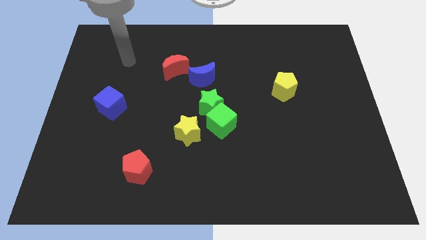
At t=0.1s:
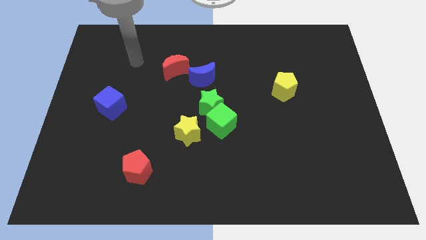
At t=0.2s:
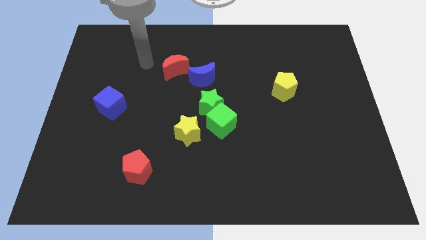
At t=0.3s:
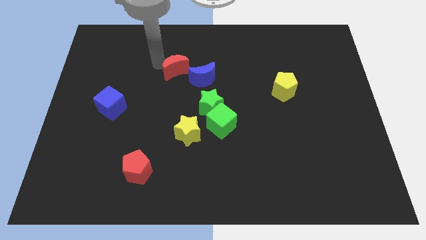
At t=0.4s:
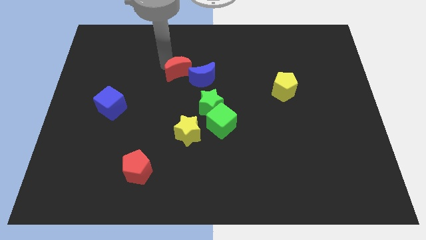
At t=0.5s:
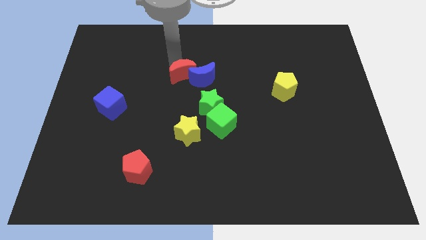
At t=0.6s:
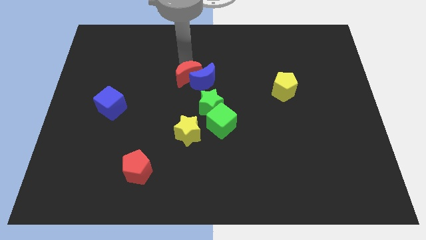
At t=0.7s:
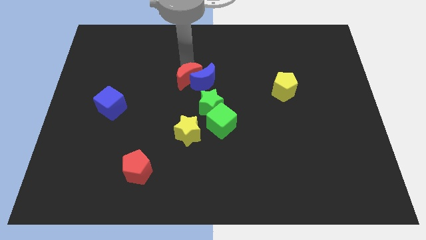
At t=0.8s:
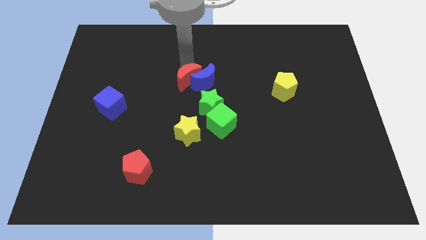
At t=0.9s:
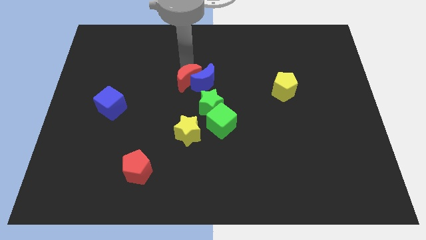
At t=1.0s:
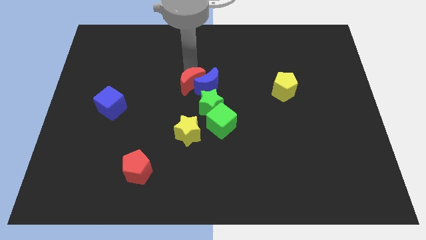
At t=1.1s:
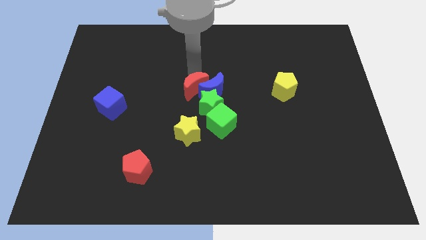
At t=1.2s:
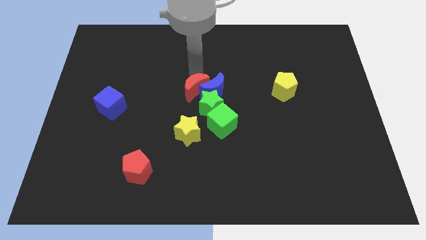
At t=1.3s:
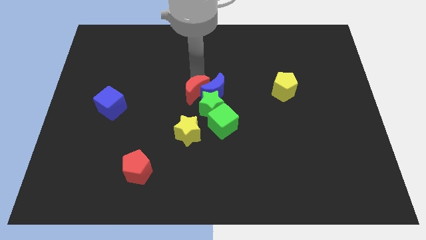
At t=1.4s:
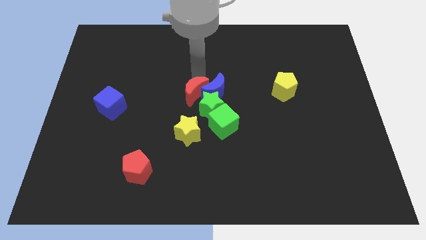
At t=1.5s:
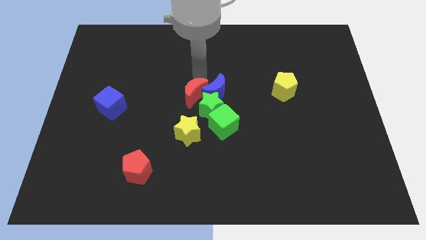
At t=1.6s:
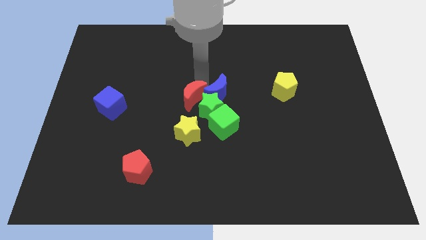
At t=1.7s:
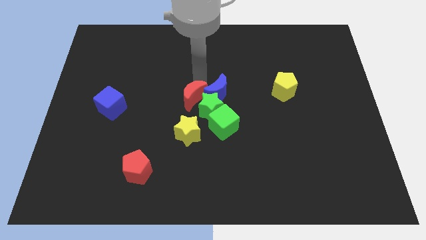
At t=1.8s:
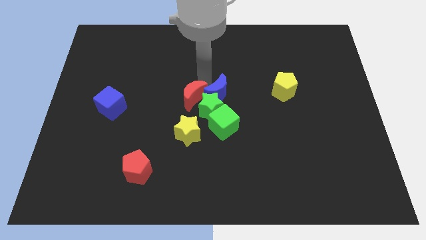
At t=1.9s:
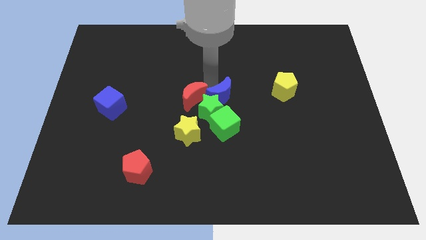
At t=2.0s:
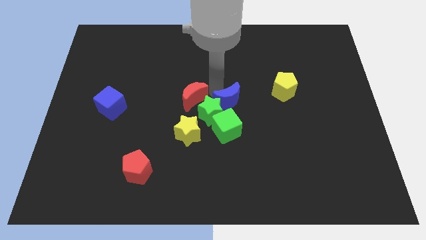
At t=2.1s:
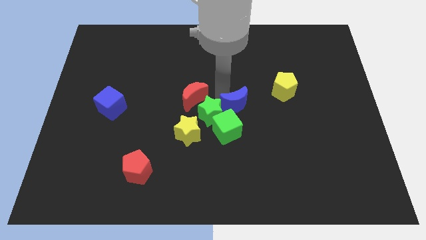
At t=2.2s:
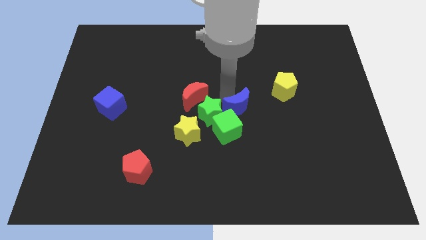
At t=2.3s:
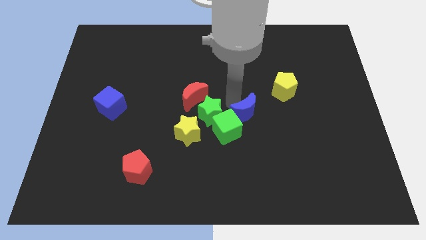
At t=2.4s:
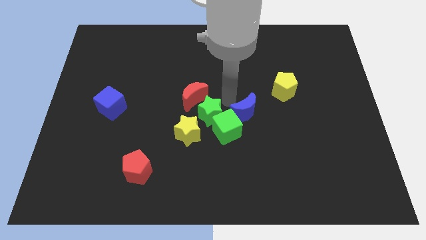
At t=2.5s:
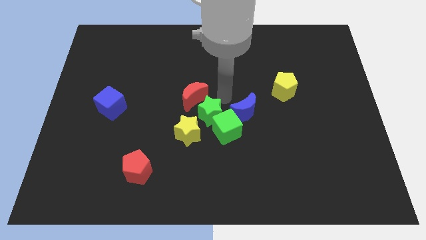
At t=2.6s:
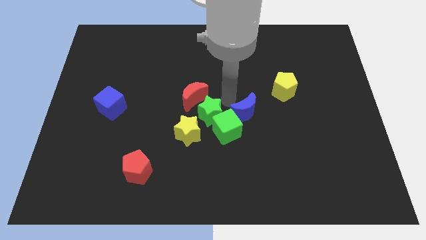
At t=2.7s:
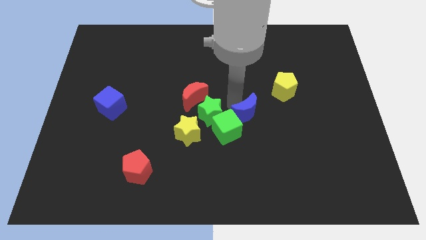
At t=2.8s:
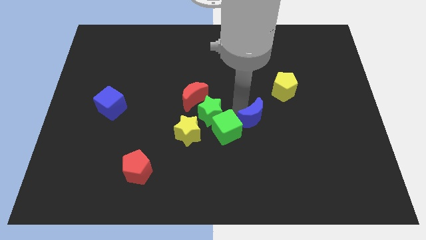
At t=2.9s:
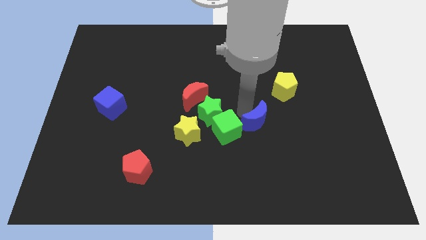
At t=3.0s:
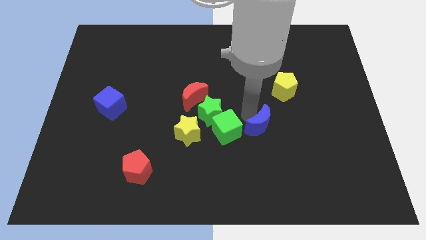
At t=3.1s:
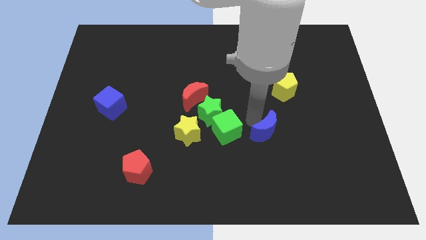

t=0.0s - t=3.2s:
push the blue moon down and right

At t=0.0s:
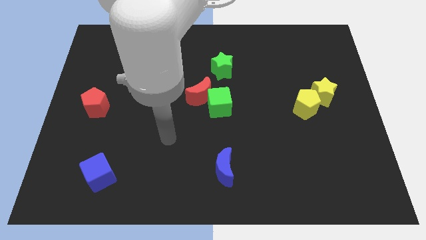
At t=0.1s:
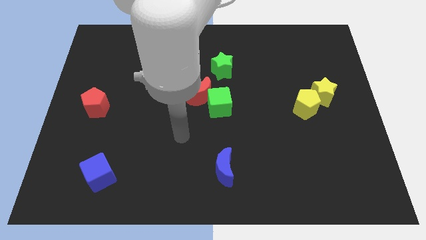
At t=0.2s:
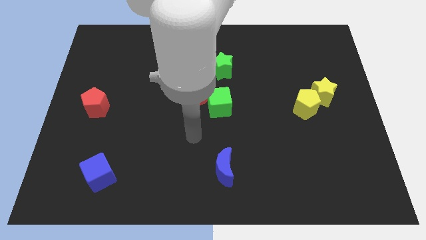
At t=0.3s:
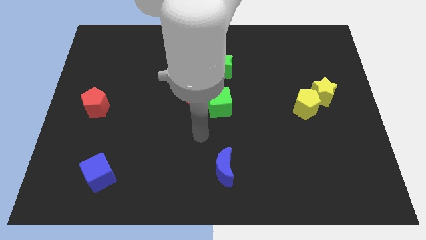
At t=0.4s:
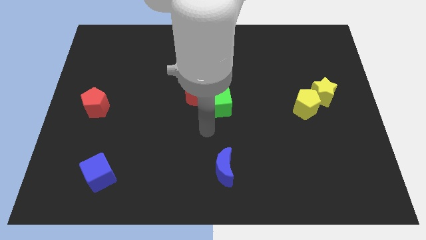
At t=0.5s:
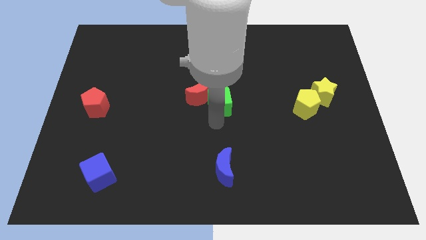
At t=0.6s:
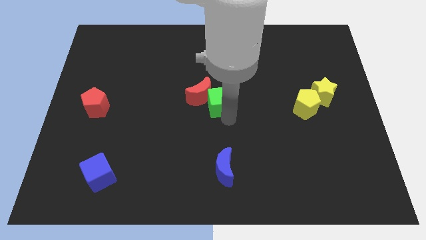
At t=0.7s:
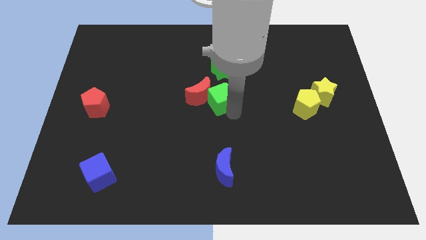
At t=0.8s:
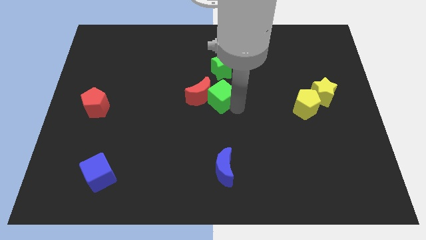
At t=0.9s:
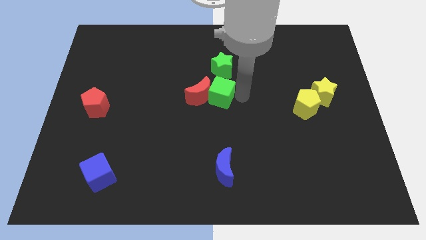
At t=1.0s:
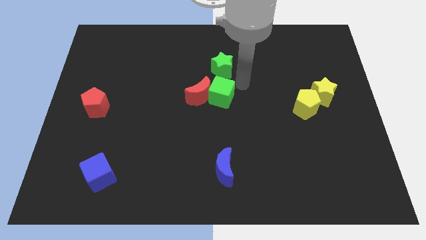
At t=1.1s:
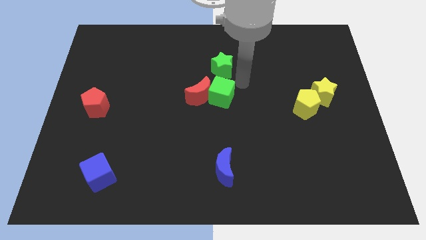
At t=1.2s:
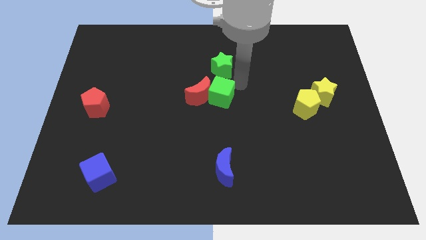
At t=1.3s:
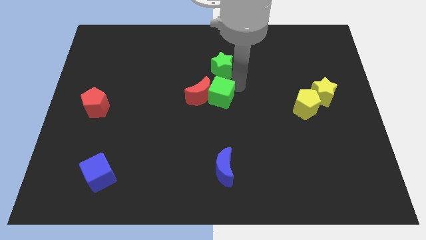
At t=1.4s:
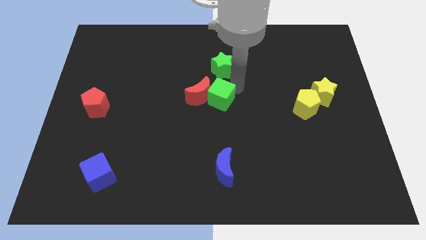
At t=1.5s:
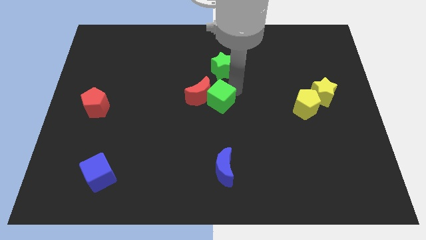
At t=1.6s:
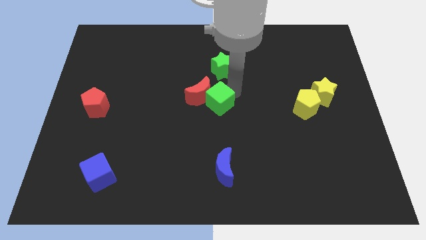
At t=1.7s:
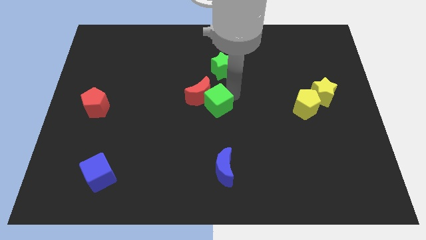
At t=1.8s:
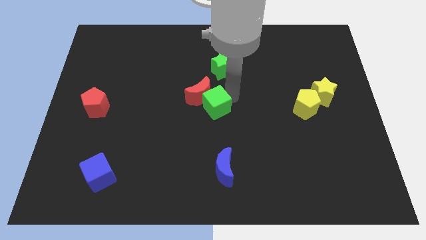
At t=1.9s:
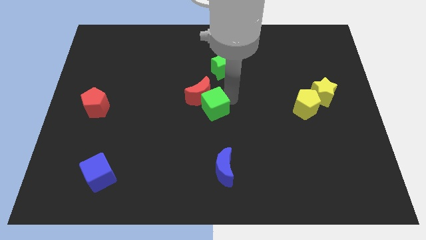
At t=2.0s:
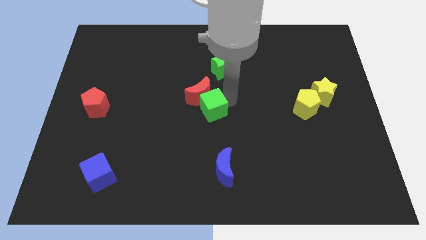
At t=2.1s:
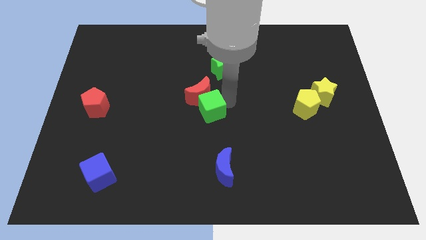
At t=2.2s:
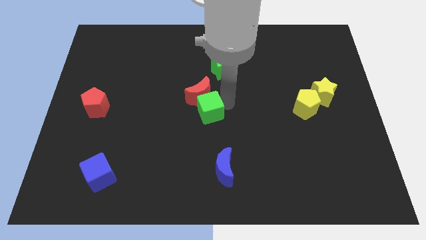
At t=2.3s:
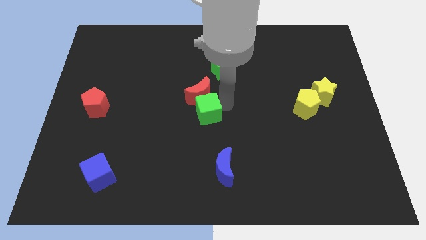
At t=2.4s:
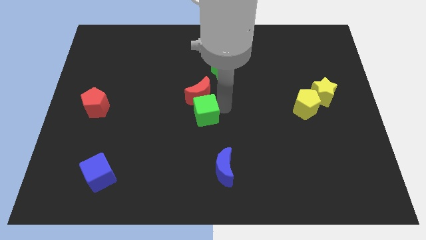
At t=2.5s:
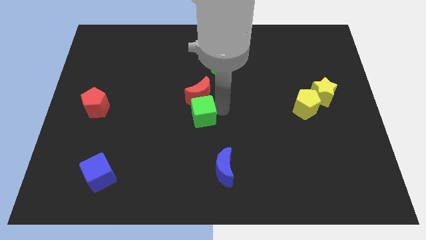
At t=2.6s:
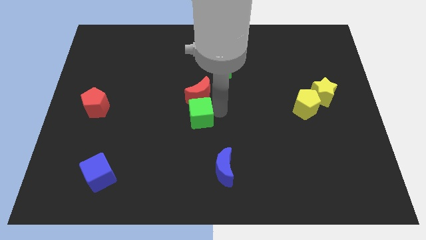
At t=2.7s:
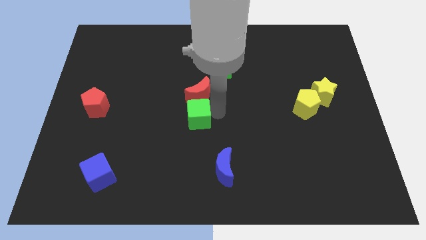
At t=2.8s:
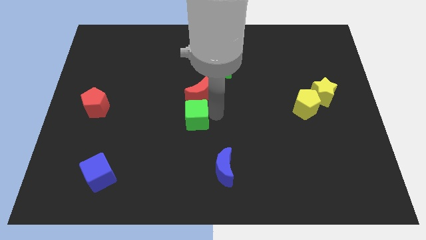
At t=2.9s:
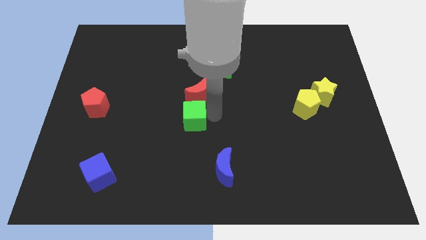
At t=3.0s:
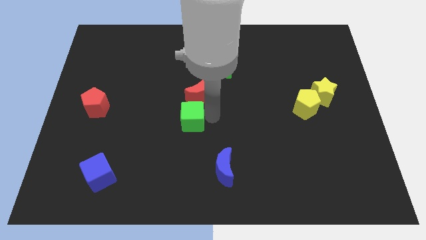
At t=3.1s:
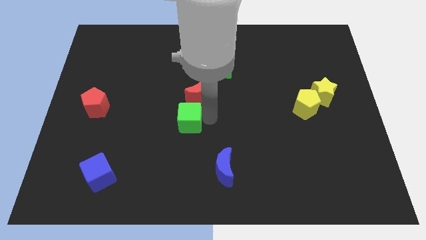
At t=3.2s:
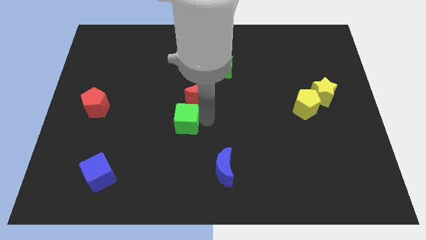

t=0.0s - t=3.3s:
move the green cube to the left a little bit

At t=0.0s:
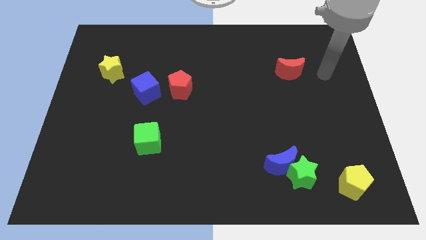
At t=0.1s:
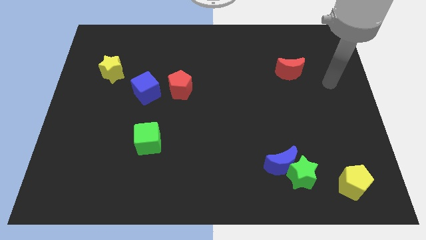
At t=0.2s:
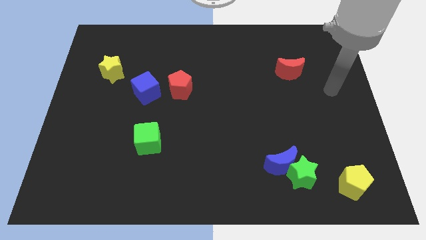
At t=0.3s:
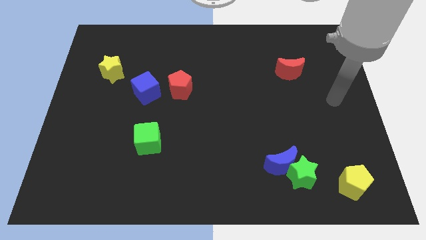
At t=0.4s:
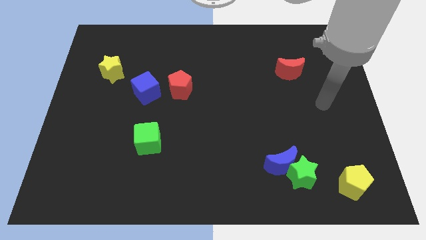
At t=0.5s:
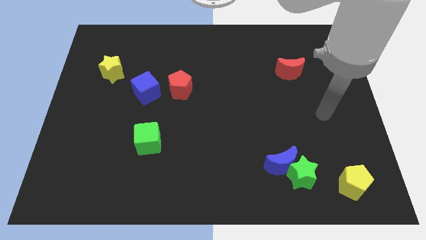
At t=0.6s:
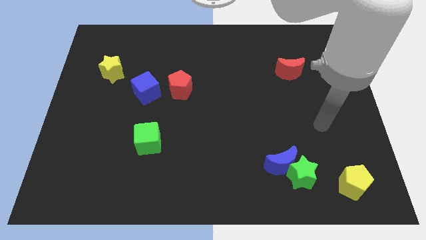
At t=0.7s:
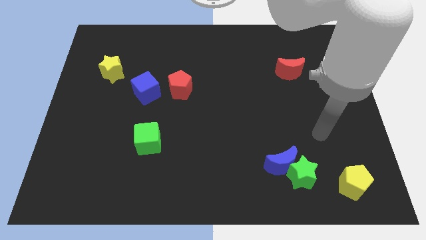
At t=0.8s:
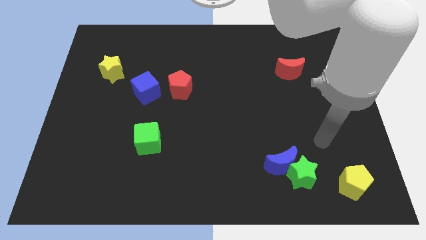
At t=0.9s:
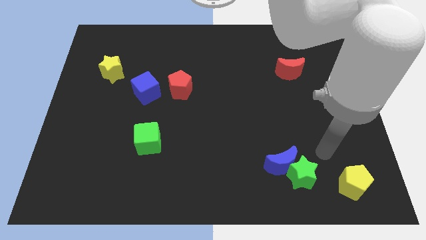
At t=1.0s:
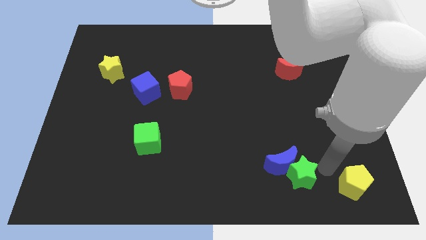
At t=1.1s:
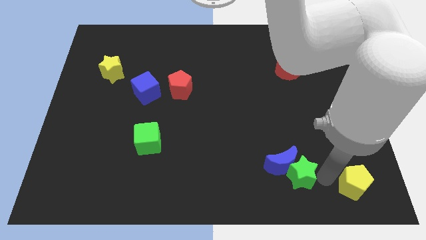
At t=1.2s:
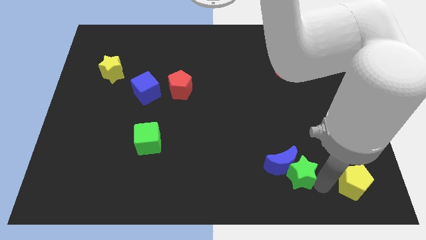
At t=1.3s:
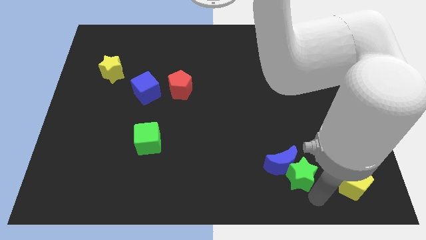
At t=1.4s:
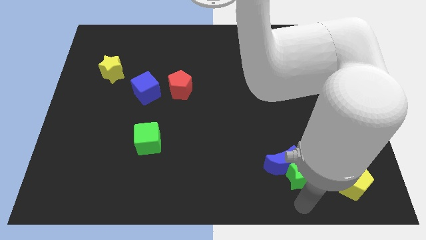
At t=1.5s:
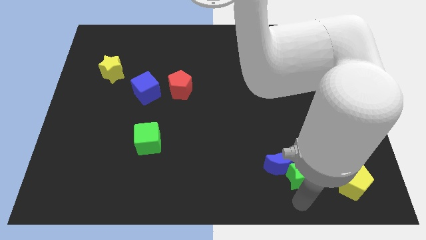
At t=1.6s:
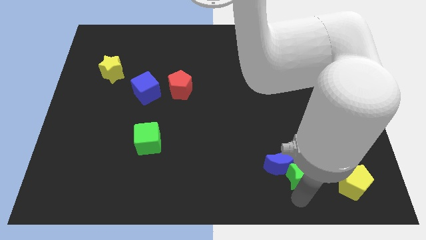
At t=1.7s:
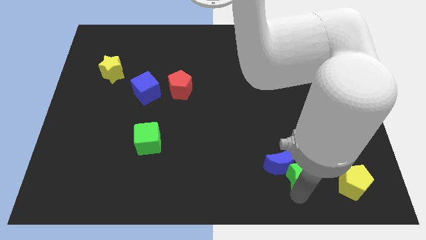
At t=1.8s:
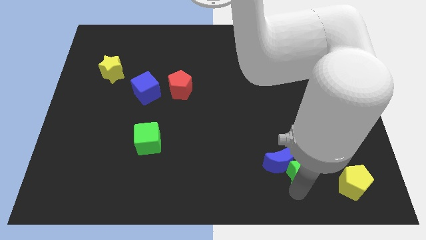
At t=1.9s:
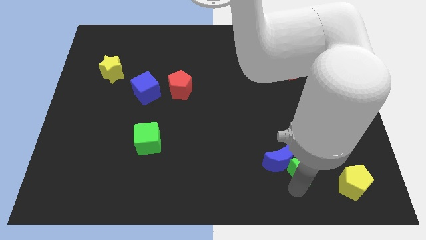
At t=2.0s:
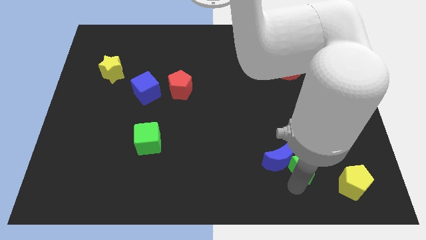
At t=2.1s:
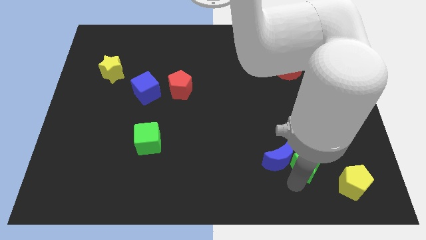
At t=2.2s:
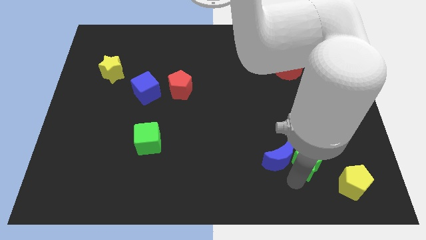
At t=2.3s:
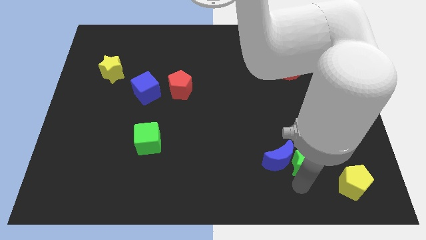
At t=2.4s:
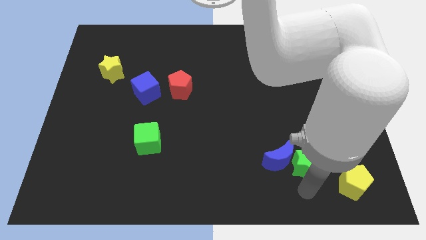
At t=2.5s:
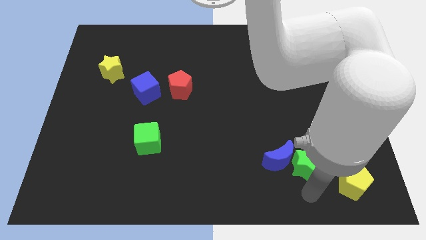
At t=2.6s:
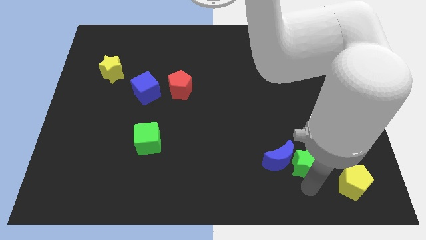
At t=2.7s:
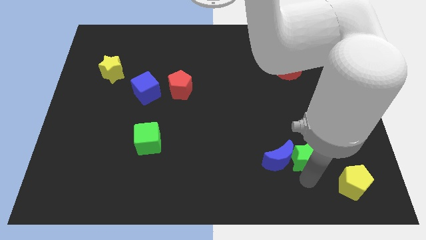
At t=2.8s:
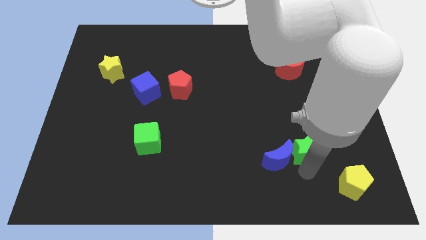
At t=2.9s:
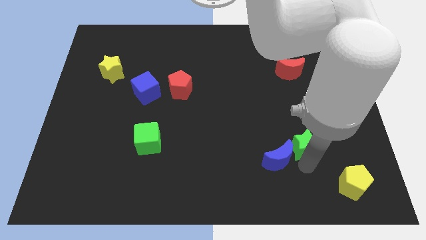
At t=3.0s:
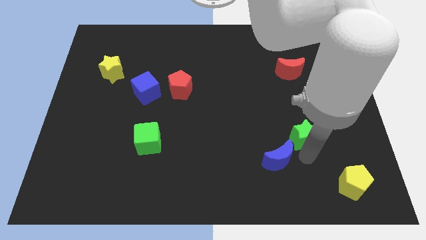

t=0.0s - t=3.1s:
slightly slide the green star upwards
